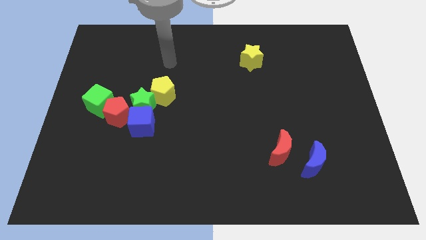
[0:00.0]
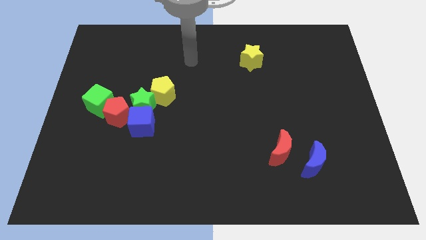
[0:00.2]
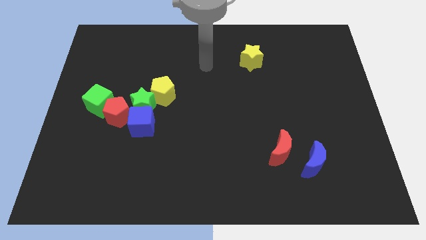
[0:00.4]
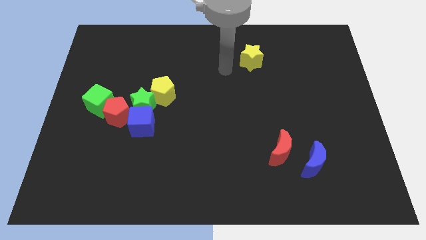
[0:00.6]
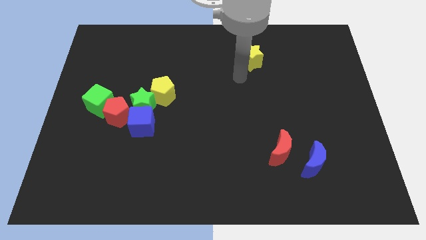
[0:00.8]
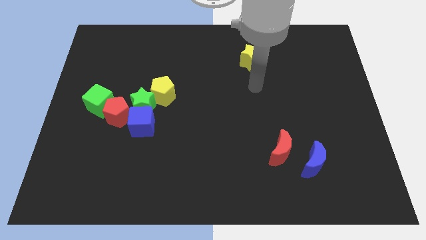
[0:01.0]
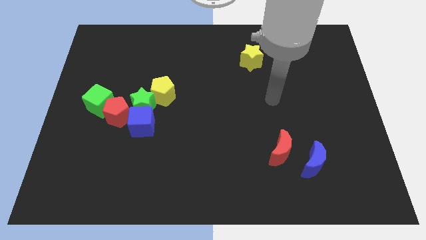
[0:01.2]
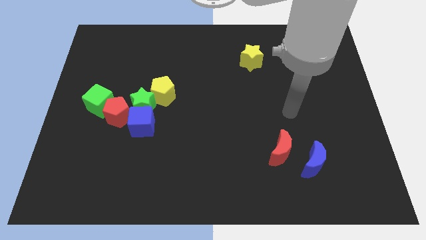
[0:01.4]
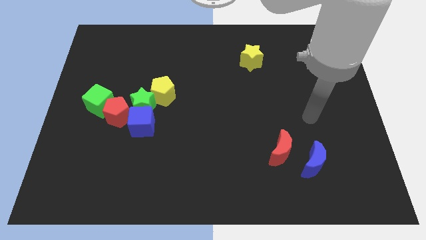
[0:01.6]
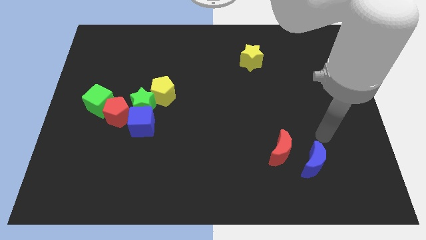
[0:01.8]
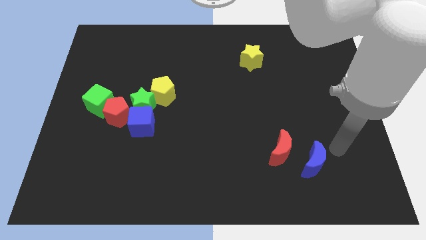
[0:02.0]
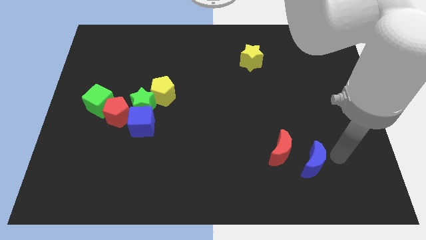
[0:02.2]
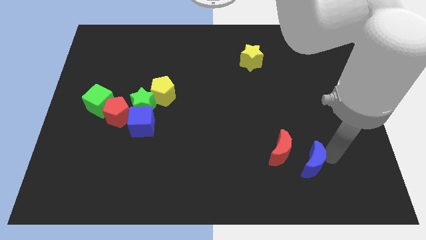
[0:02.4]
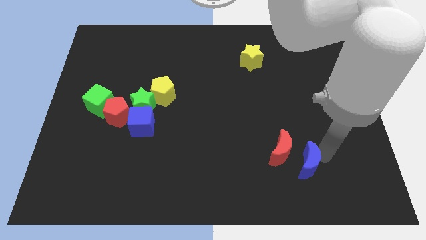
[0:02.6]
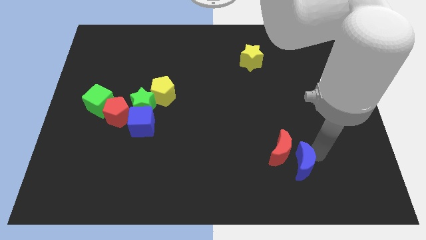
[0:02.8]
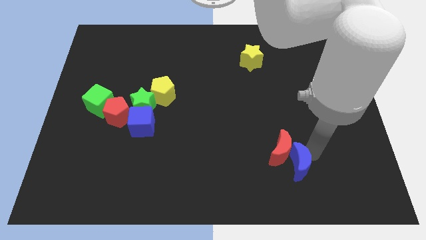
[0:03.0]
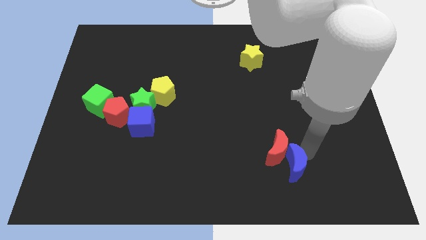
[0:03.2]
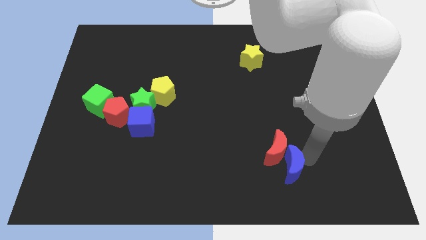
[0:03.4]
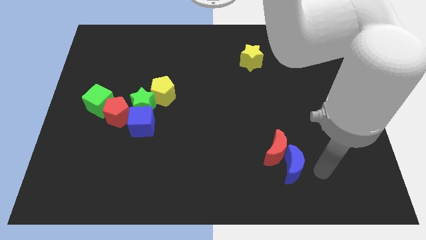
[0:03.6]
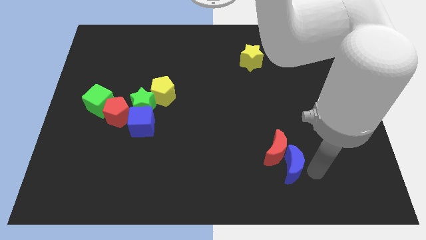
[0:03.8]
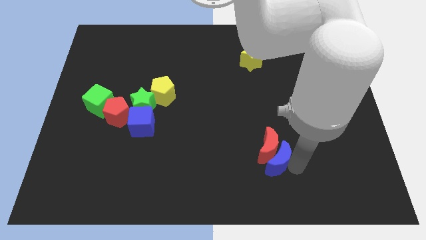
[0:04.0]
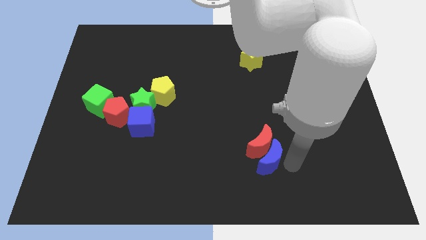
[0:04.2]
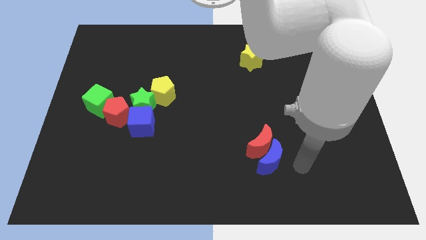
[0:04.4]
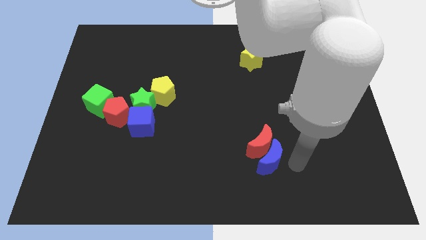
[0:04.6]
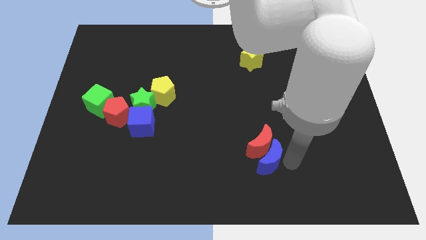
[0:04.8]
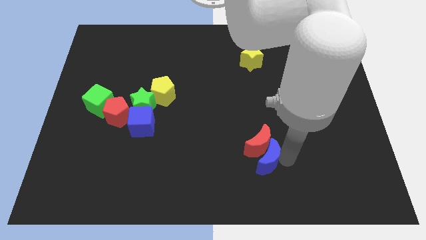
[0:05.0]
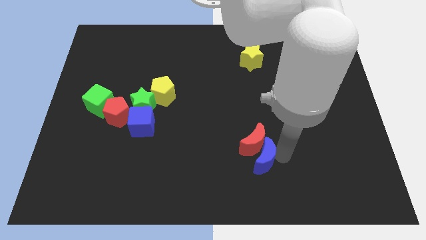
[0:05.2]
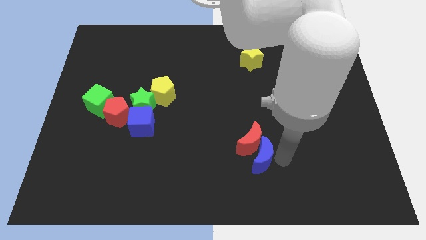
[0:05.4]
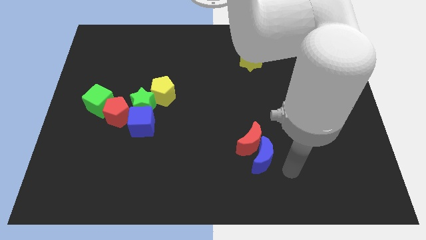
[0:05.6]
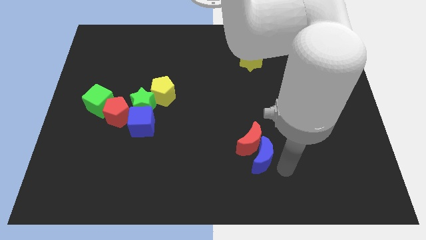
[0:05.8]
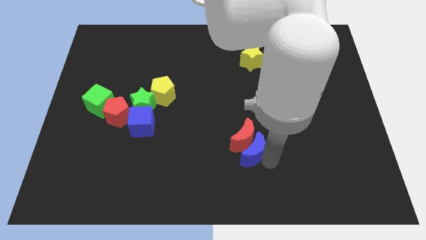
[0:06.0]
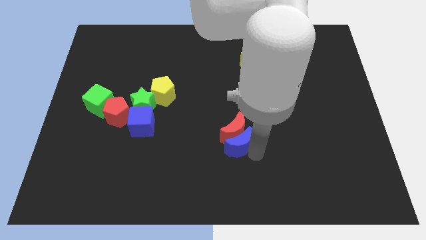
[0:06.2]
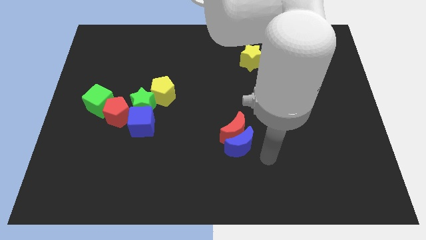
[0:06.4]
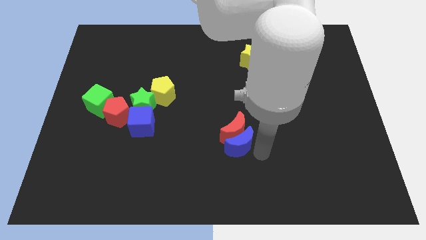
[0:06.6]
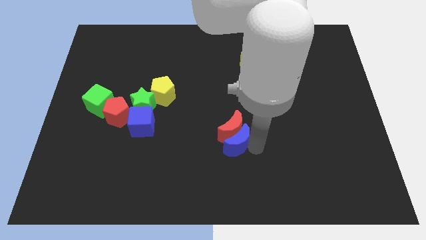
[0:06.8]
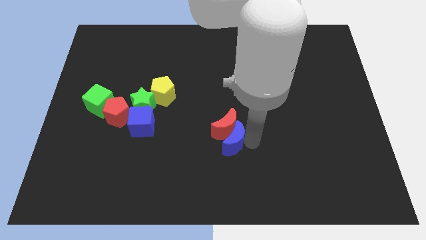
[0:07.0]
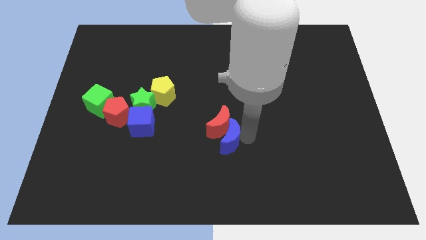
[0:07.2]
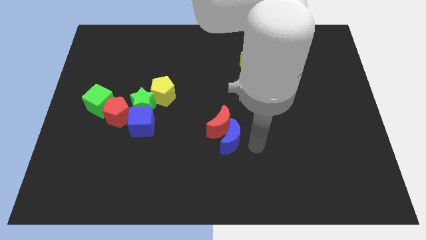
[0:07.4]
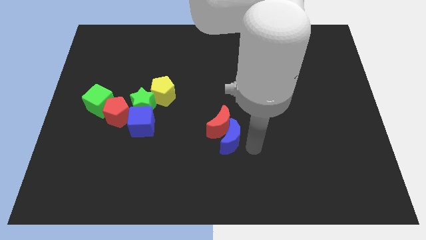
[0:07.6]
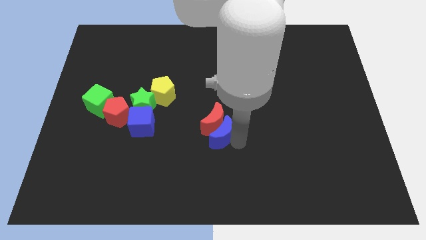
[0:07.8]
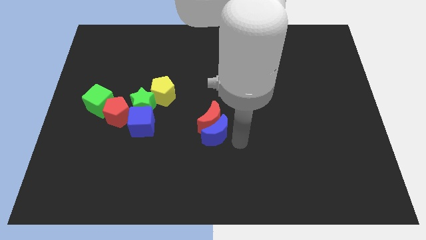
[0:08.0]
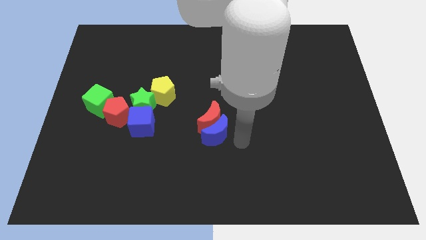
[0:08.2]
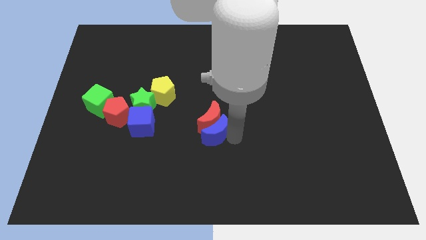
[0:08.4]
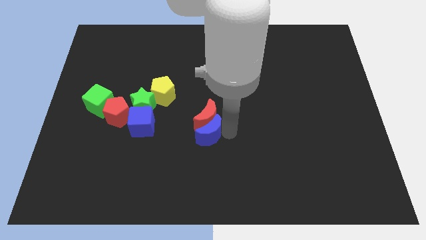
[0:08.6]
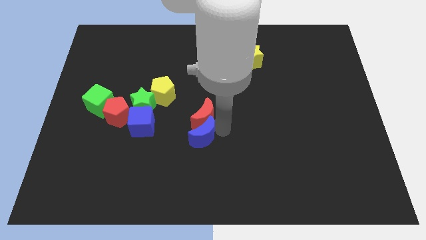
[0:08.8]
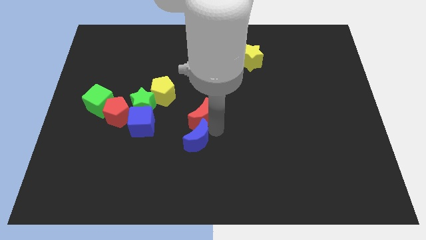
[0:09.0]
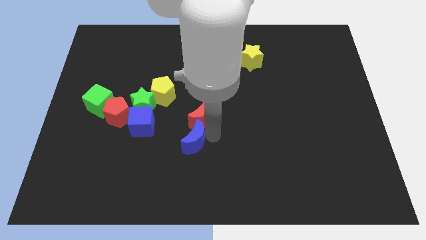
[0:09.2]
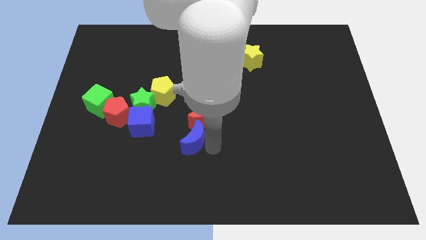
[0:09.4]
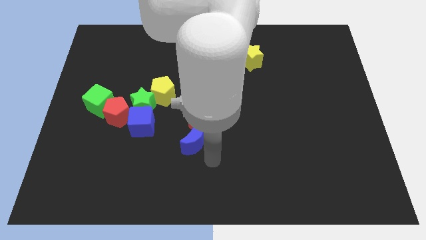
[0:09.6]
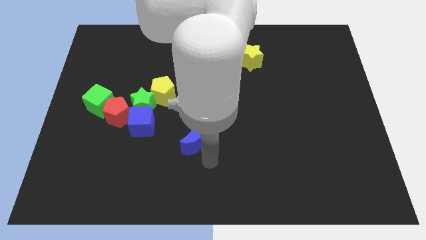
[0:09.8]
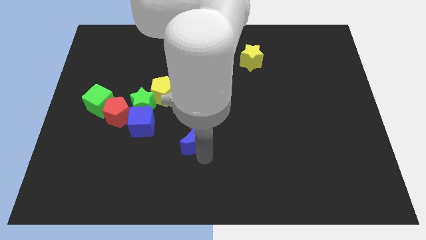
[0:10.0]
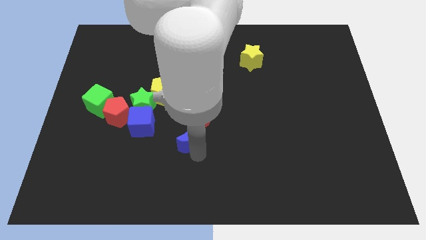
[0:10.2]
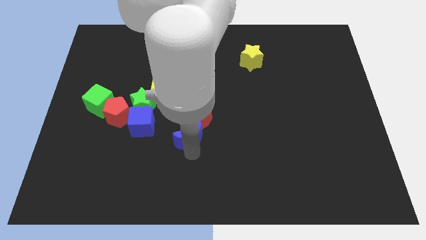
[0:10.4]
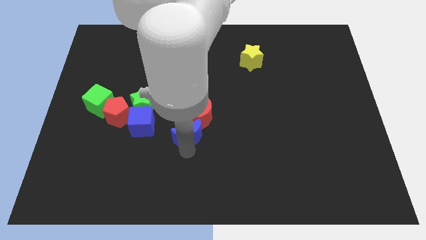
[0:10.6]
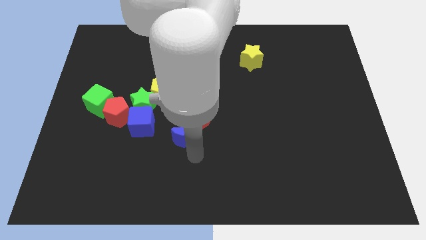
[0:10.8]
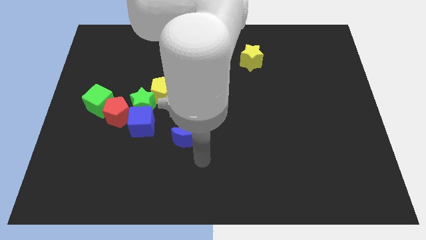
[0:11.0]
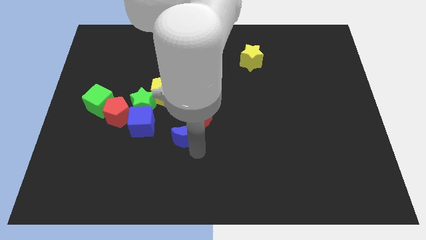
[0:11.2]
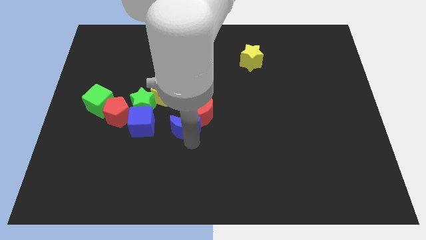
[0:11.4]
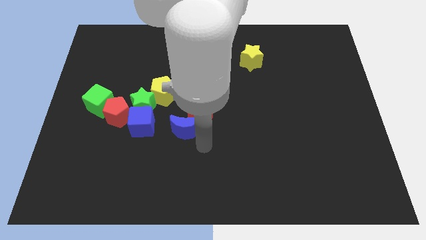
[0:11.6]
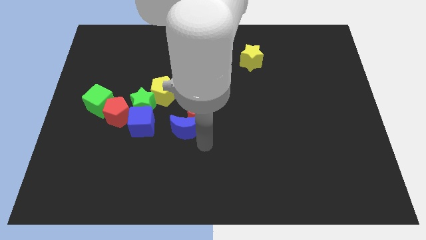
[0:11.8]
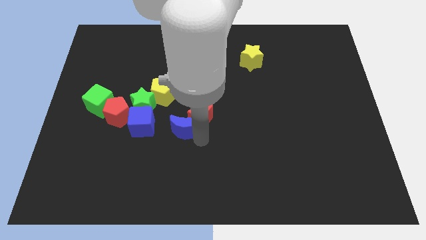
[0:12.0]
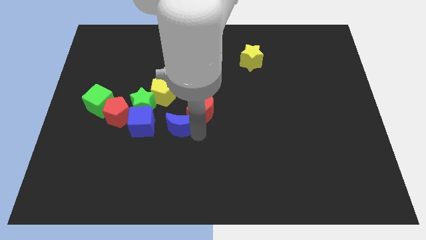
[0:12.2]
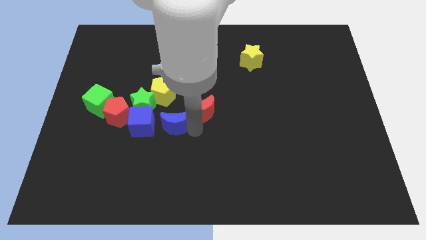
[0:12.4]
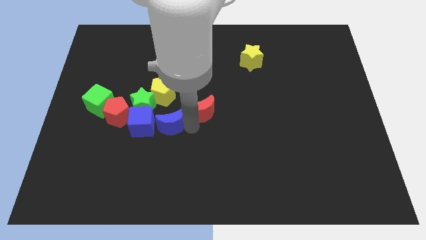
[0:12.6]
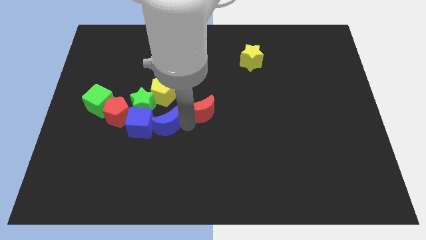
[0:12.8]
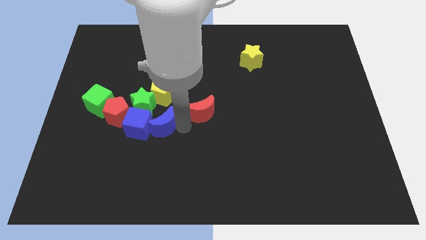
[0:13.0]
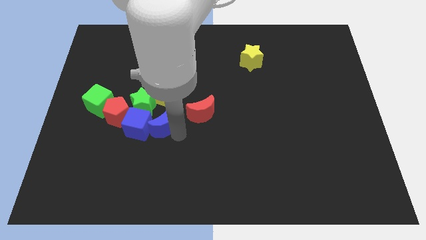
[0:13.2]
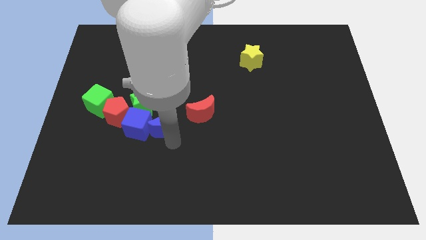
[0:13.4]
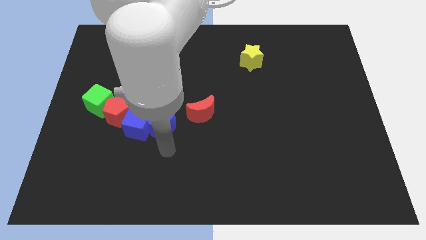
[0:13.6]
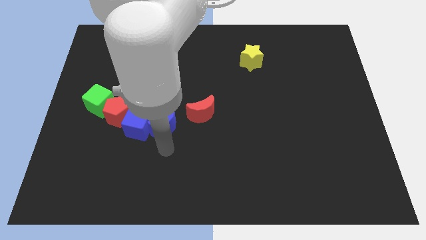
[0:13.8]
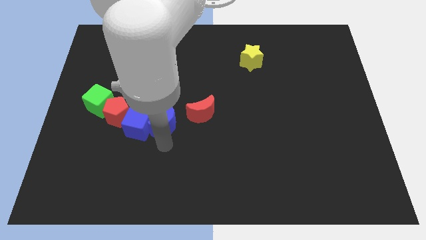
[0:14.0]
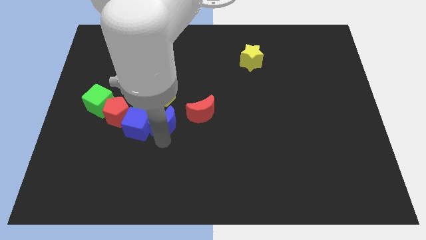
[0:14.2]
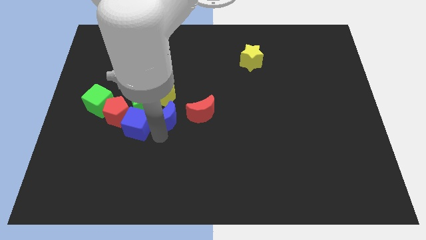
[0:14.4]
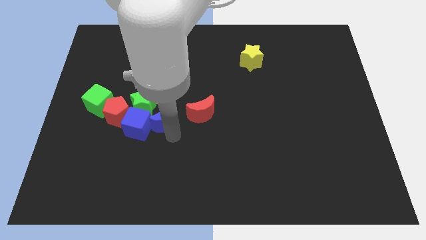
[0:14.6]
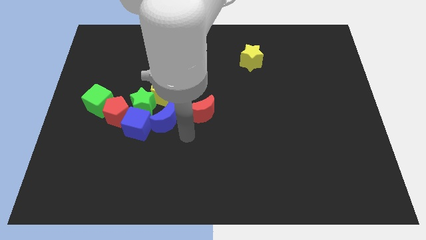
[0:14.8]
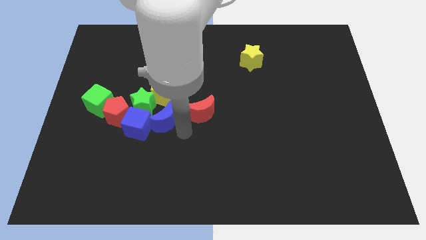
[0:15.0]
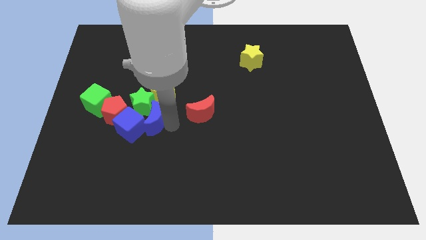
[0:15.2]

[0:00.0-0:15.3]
push the blue moon to the green star
